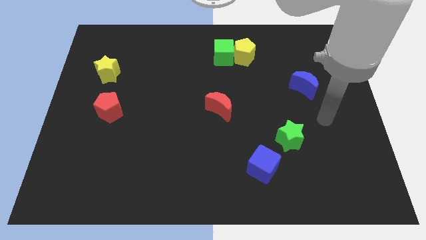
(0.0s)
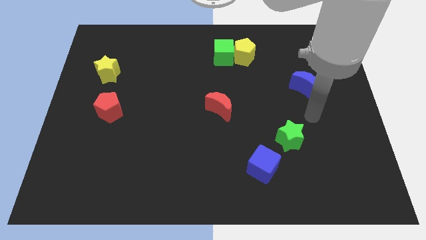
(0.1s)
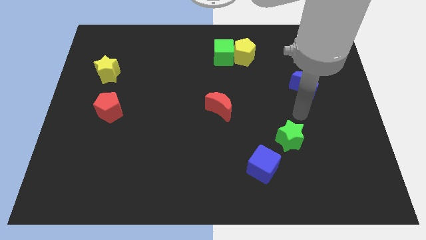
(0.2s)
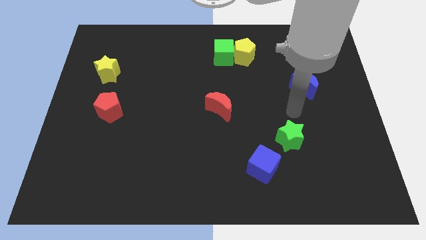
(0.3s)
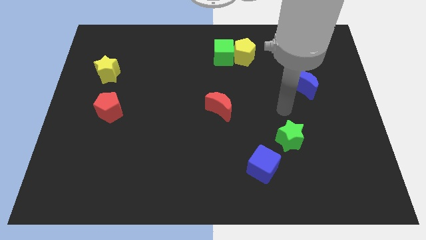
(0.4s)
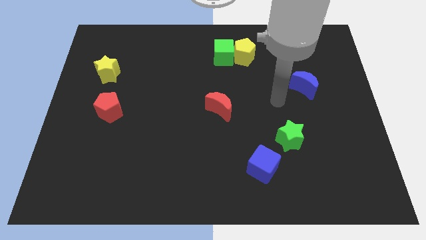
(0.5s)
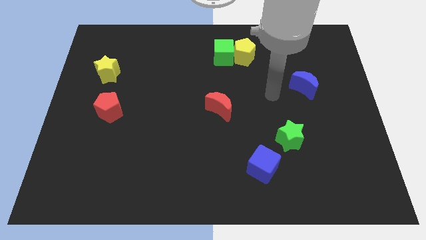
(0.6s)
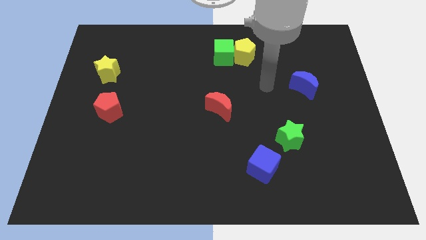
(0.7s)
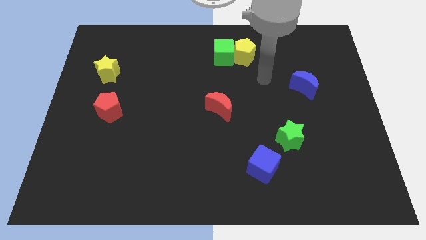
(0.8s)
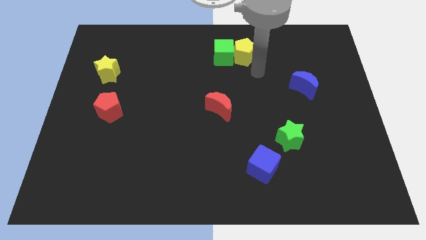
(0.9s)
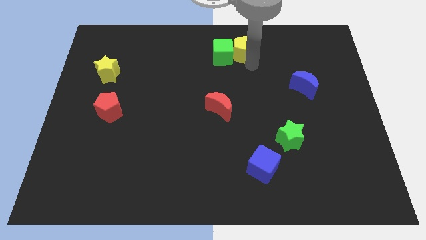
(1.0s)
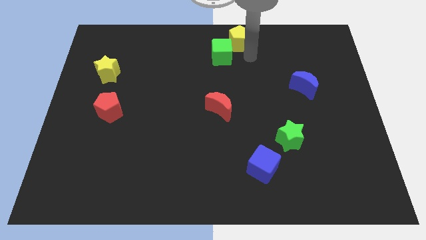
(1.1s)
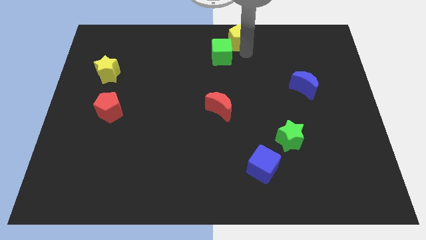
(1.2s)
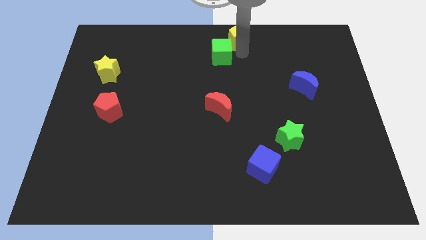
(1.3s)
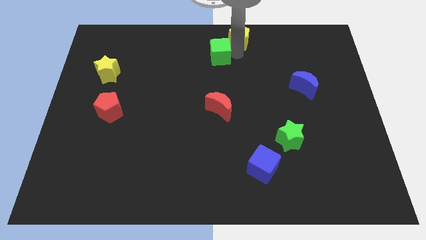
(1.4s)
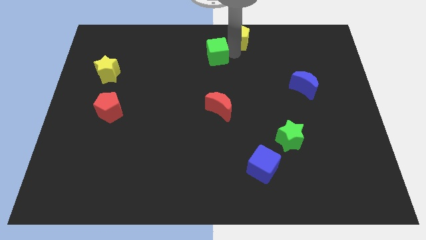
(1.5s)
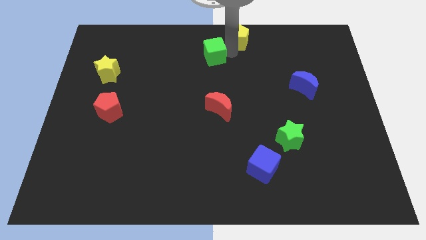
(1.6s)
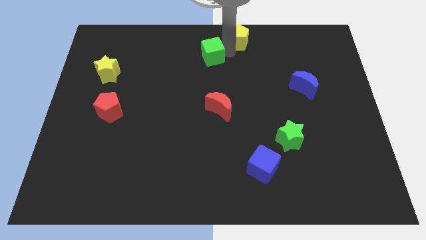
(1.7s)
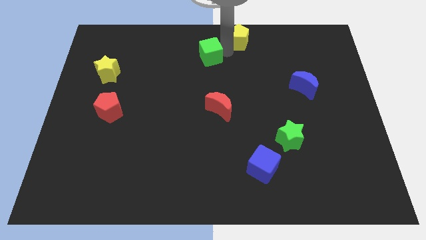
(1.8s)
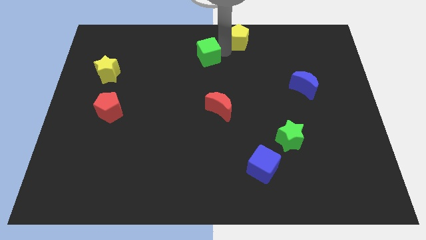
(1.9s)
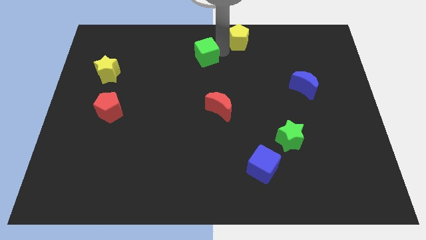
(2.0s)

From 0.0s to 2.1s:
separate the green cube from the yellow pentagon

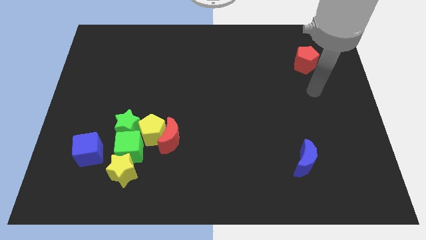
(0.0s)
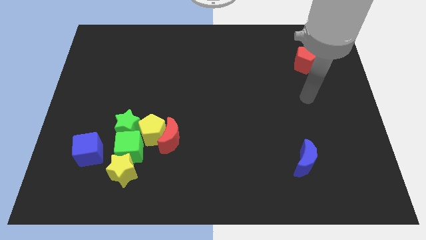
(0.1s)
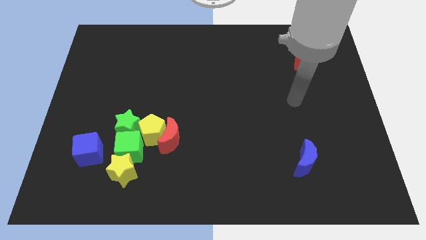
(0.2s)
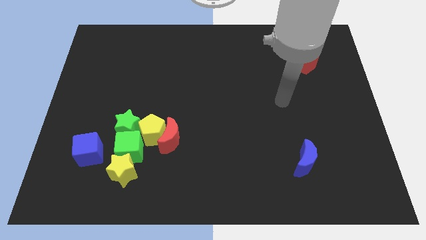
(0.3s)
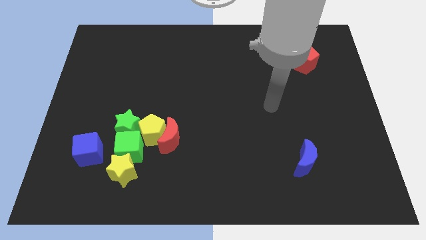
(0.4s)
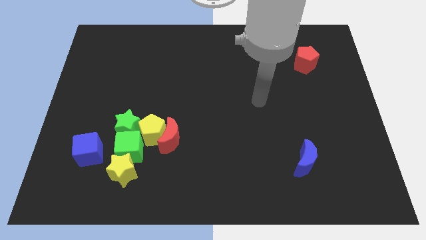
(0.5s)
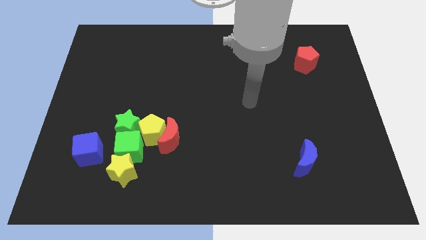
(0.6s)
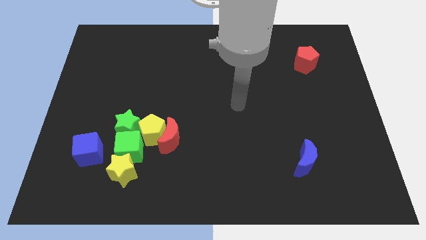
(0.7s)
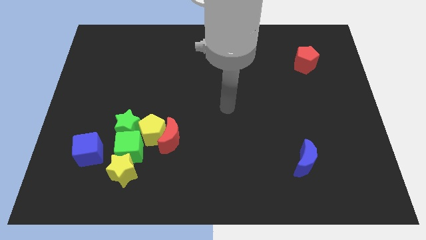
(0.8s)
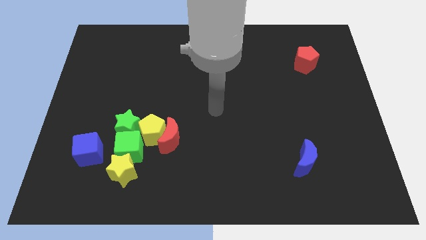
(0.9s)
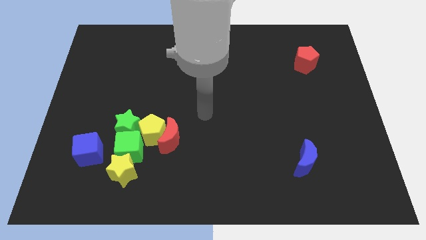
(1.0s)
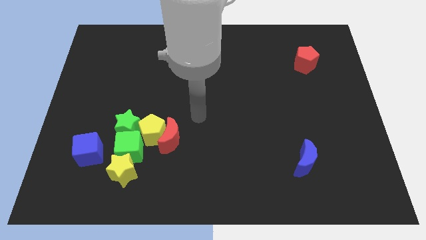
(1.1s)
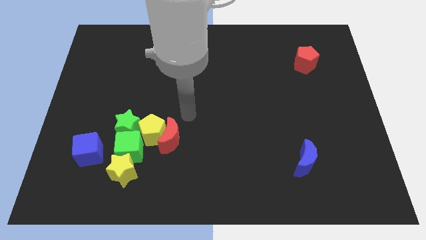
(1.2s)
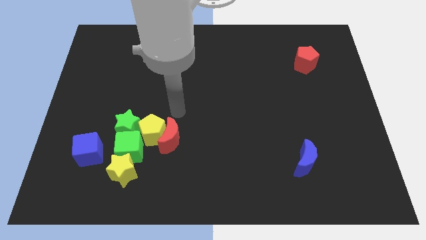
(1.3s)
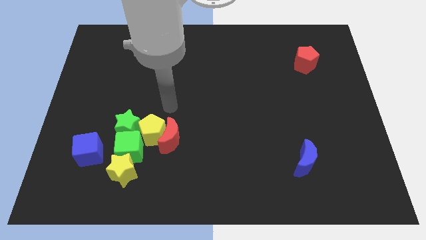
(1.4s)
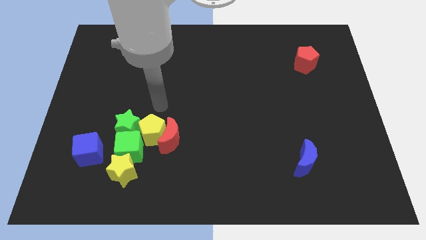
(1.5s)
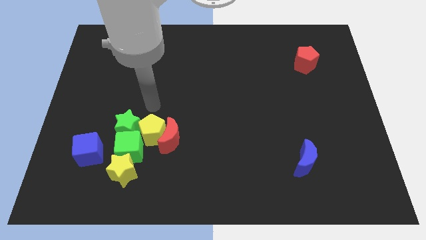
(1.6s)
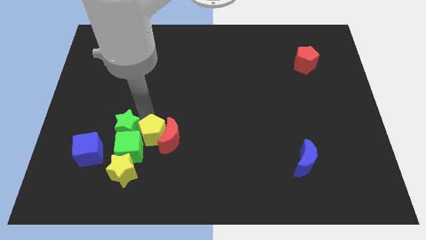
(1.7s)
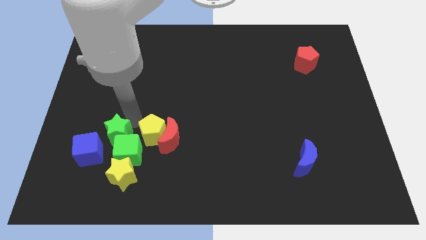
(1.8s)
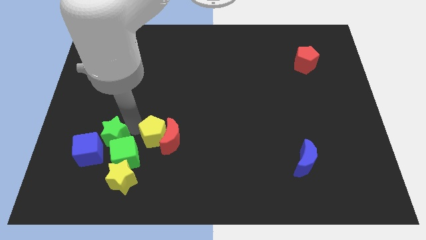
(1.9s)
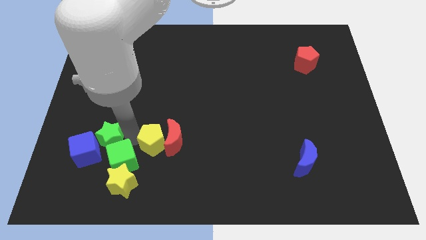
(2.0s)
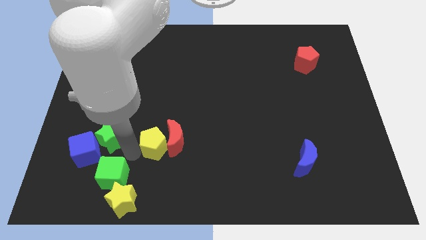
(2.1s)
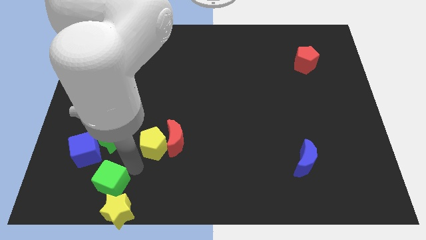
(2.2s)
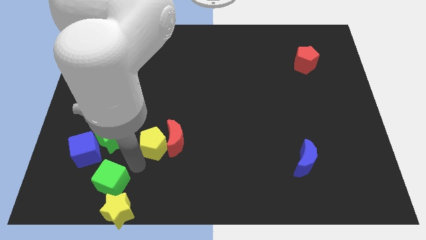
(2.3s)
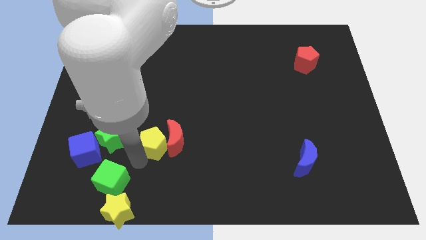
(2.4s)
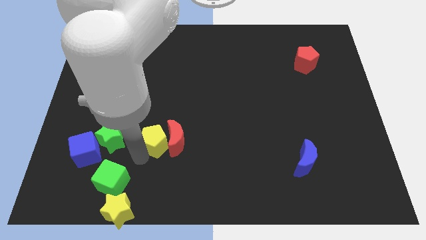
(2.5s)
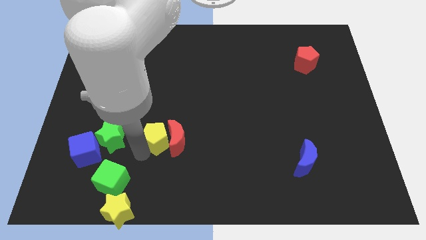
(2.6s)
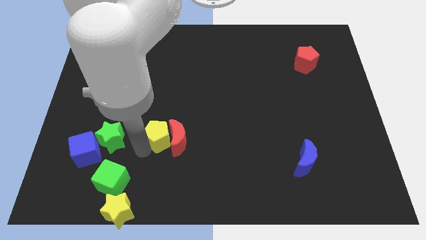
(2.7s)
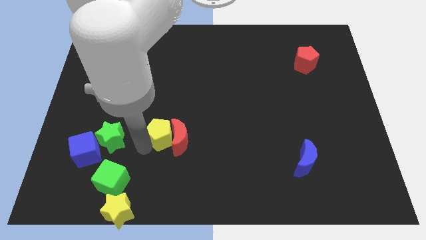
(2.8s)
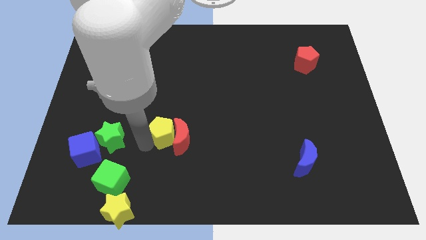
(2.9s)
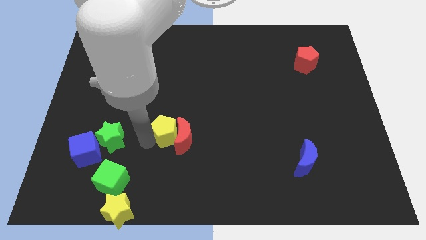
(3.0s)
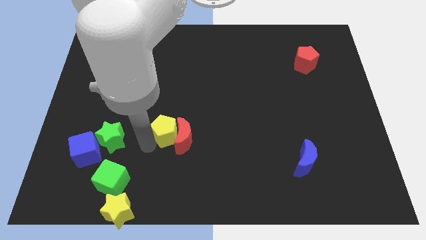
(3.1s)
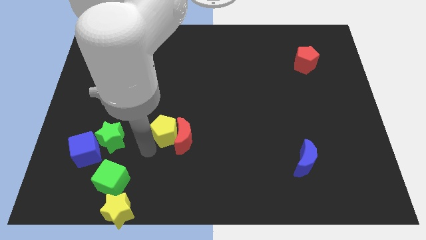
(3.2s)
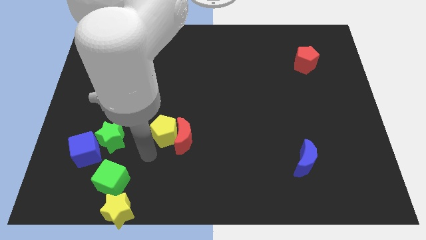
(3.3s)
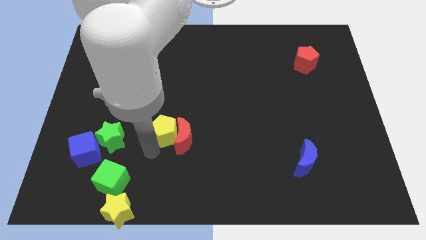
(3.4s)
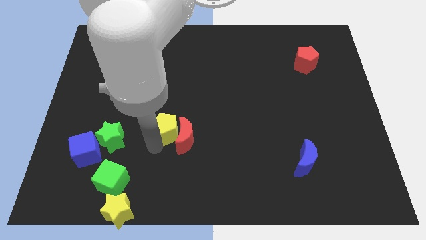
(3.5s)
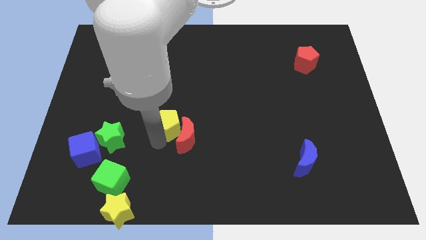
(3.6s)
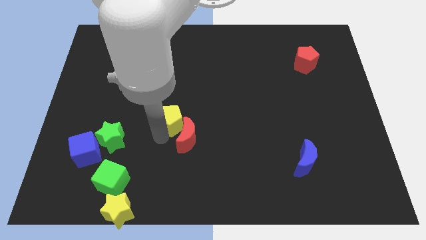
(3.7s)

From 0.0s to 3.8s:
move the yellow pentagon away from the group

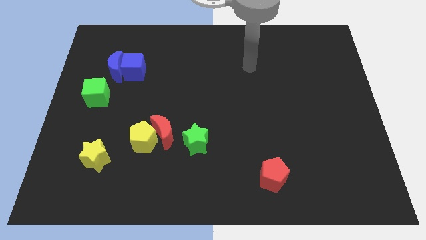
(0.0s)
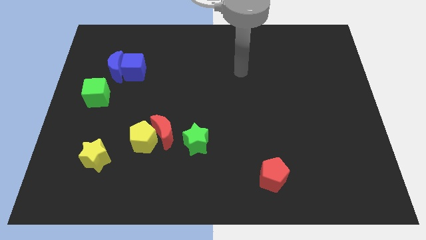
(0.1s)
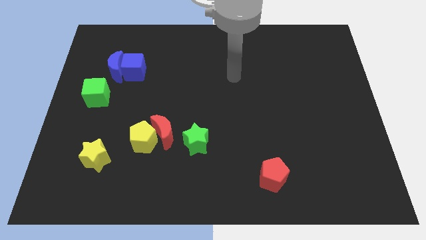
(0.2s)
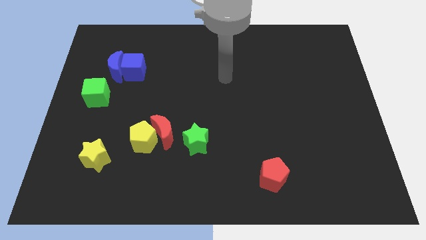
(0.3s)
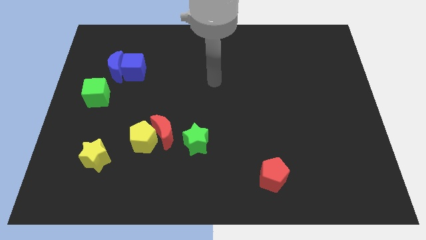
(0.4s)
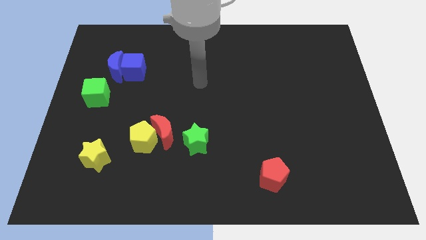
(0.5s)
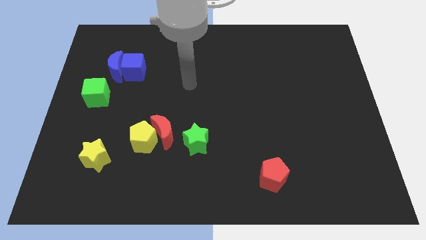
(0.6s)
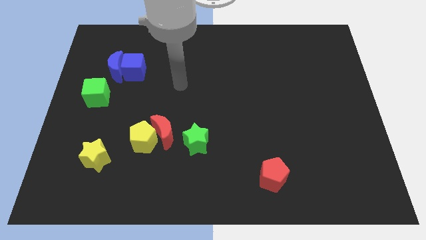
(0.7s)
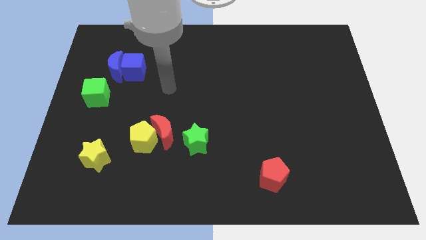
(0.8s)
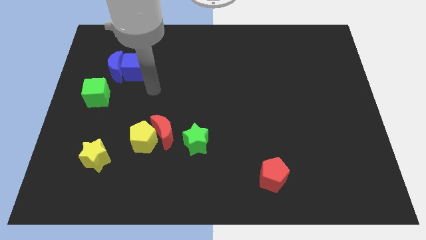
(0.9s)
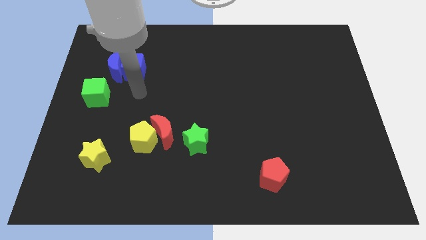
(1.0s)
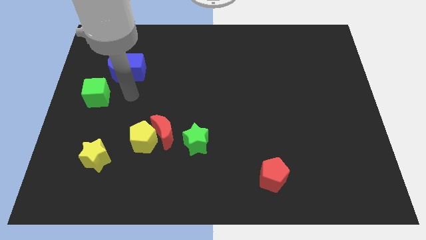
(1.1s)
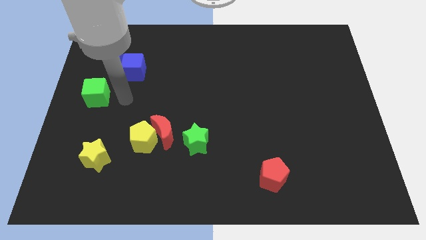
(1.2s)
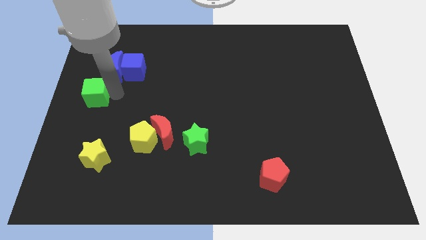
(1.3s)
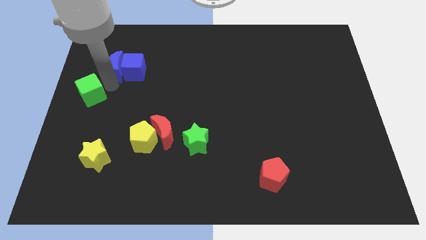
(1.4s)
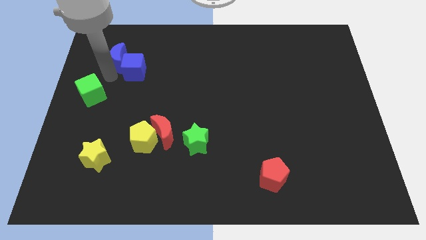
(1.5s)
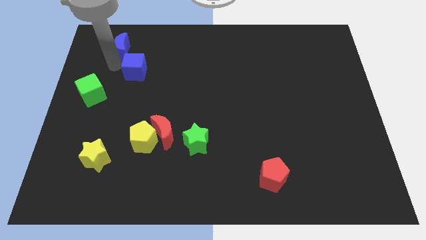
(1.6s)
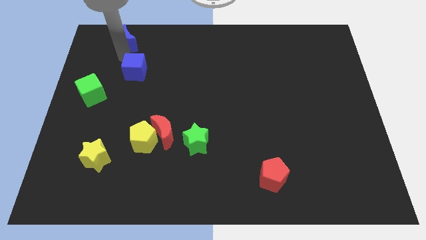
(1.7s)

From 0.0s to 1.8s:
move the blue cube away from the blue moon

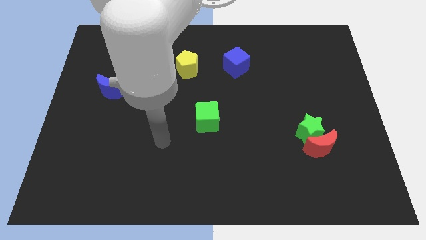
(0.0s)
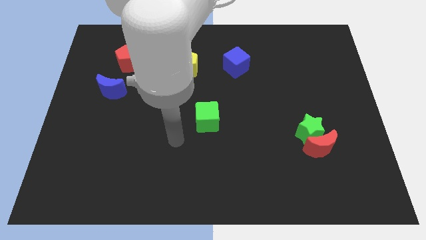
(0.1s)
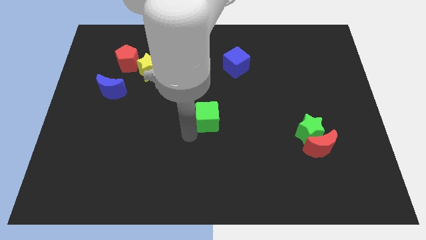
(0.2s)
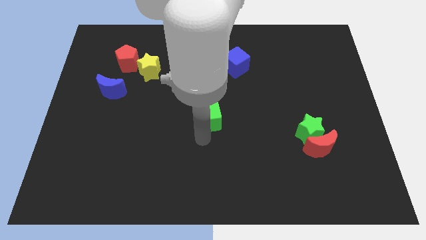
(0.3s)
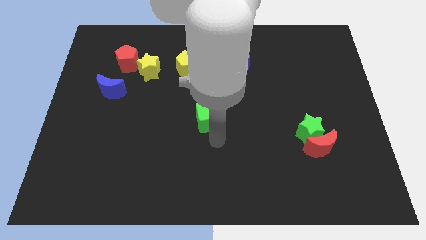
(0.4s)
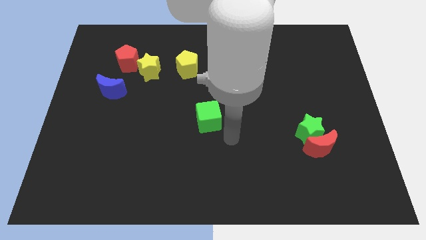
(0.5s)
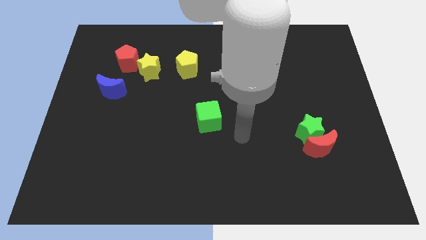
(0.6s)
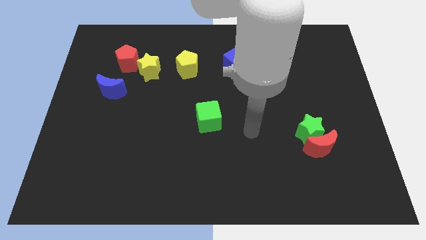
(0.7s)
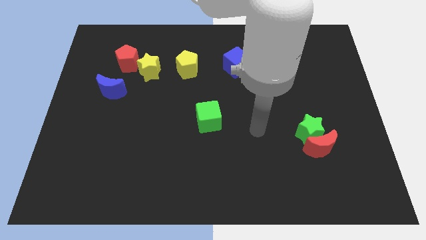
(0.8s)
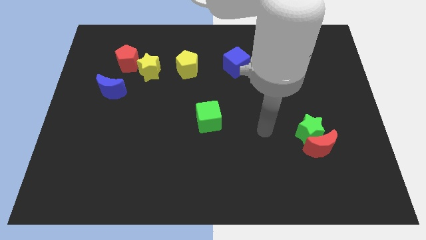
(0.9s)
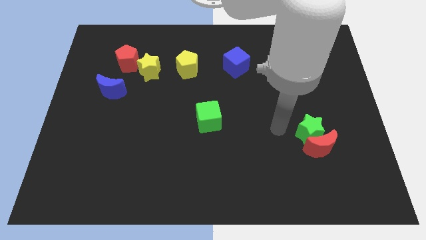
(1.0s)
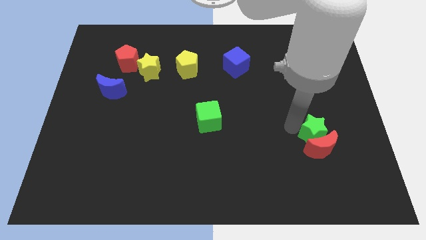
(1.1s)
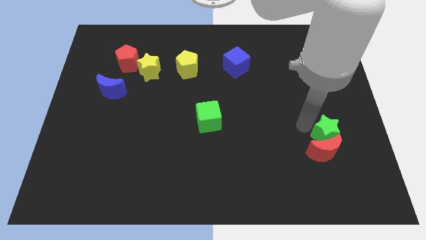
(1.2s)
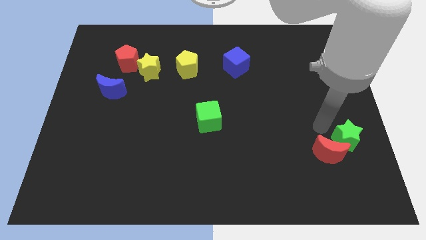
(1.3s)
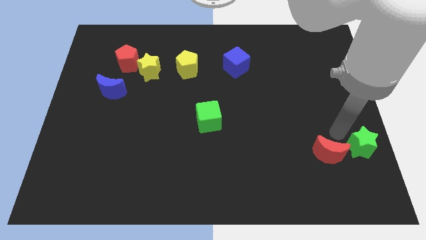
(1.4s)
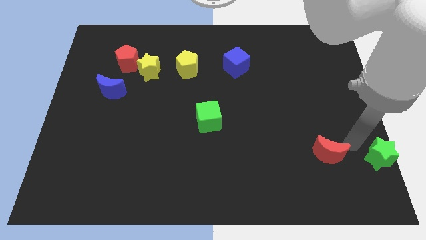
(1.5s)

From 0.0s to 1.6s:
pull the red moon apart from the green star

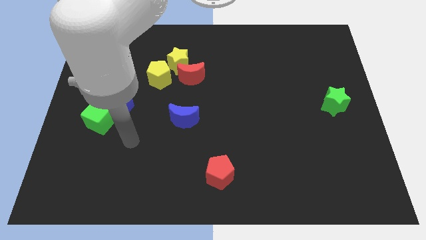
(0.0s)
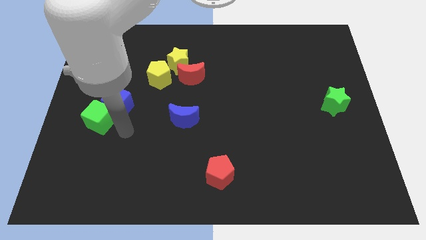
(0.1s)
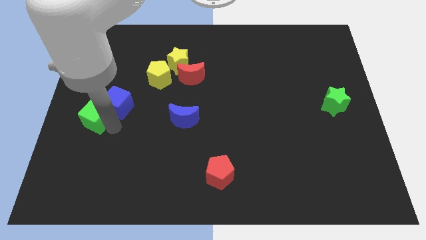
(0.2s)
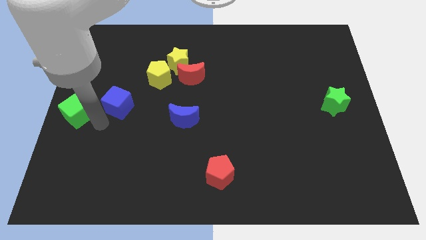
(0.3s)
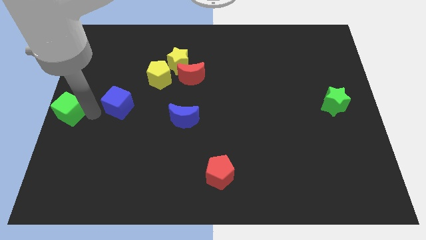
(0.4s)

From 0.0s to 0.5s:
separate the blue cube from the green cube
